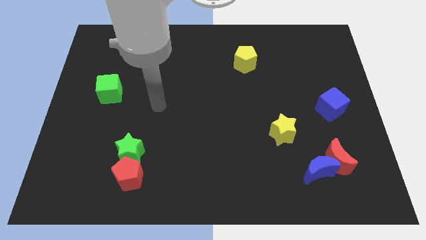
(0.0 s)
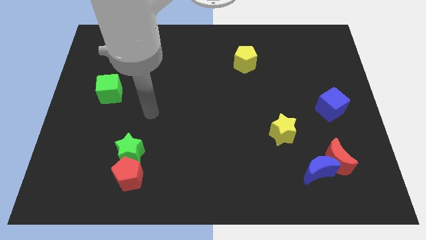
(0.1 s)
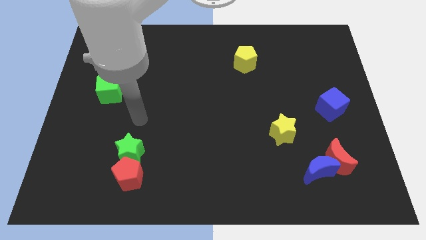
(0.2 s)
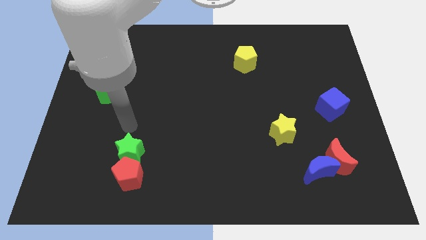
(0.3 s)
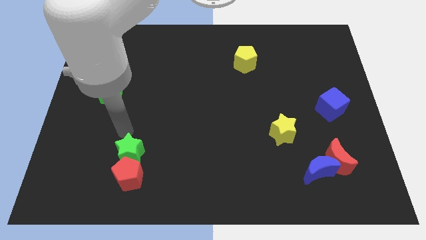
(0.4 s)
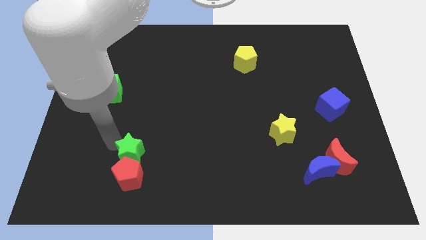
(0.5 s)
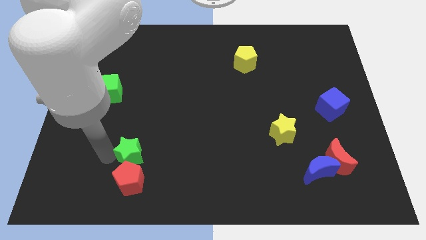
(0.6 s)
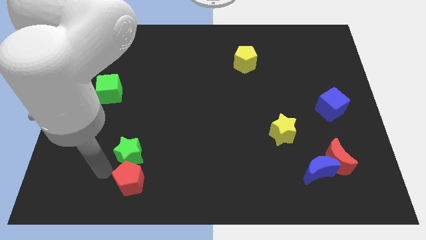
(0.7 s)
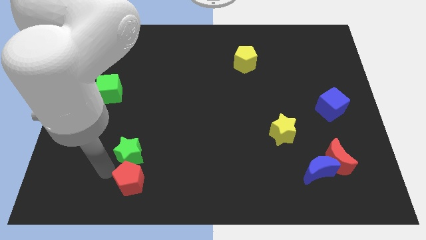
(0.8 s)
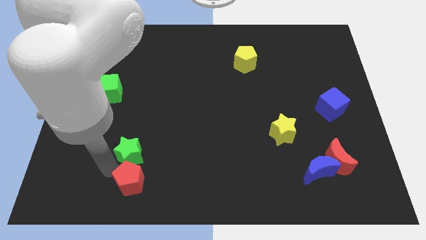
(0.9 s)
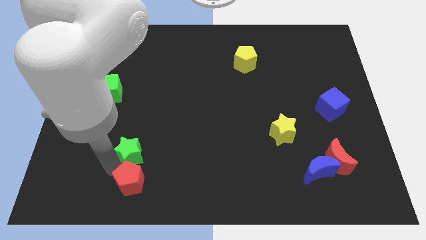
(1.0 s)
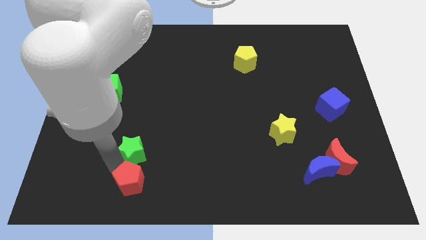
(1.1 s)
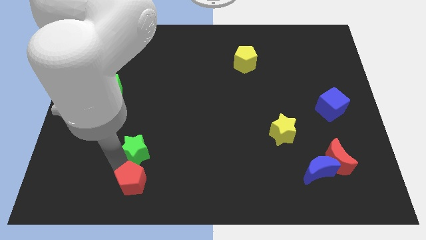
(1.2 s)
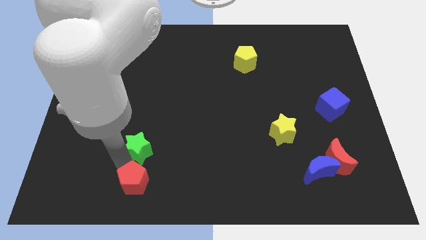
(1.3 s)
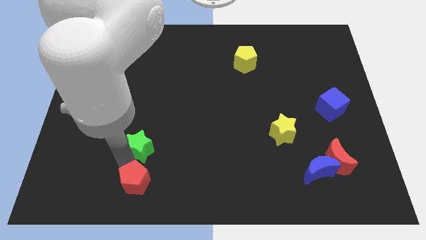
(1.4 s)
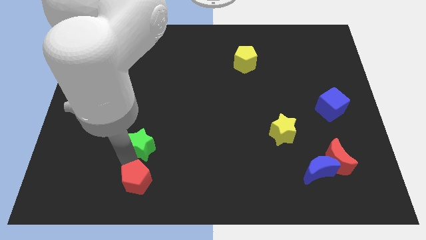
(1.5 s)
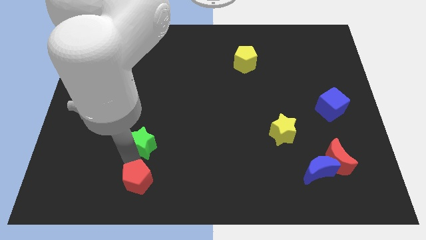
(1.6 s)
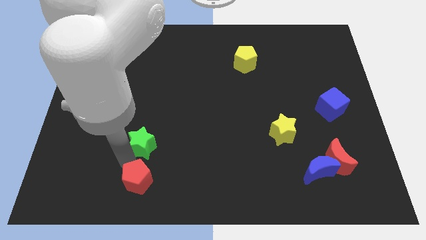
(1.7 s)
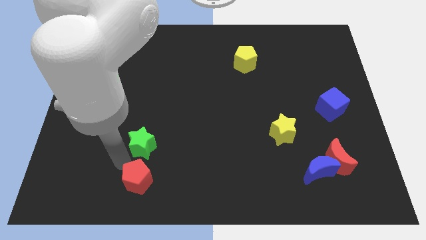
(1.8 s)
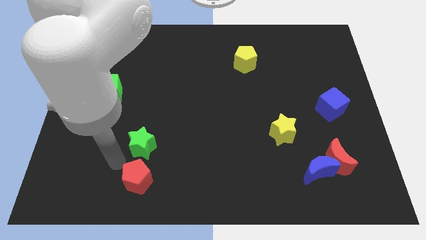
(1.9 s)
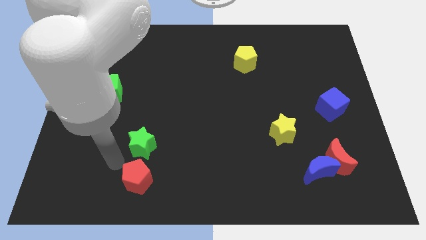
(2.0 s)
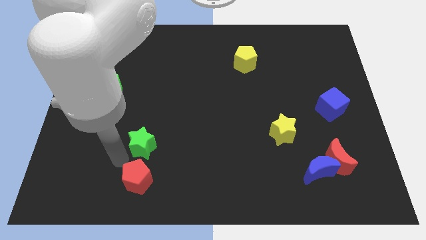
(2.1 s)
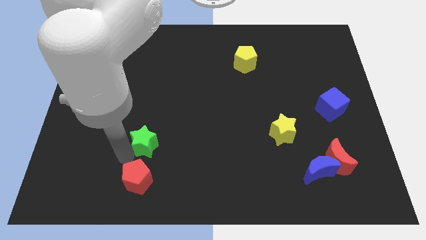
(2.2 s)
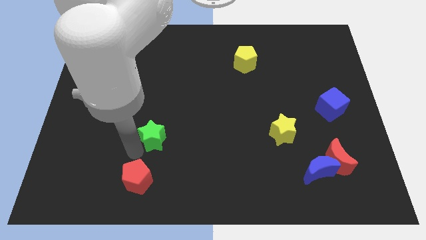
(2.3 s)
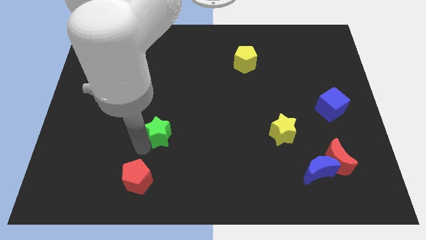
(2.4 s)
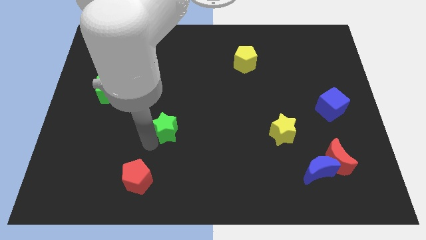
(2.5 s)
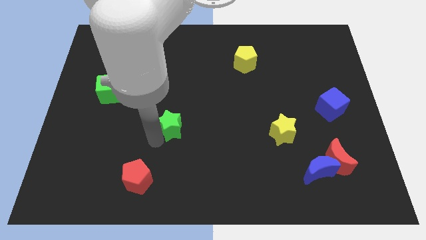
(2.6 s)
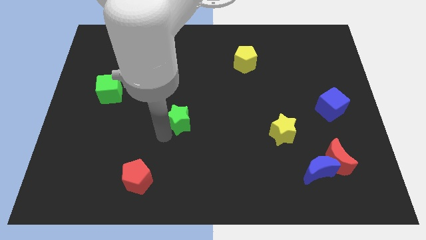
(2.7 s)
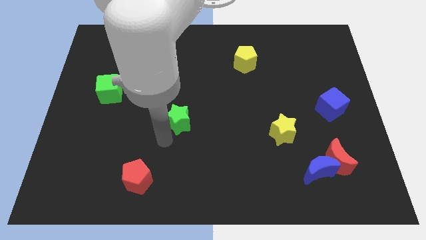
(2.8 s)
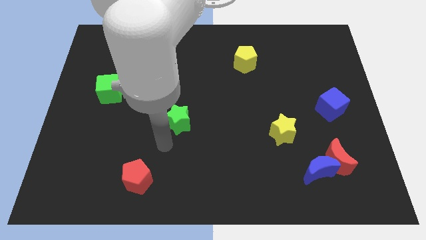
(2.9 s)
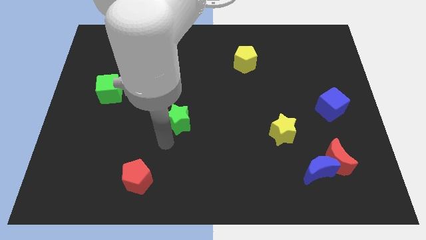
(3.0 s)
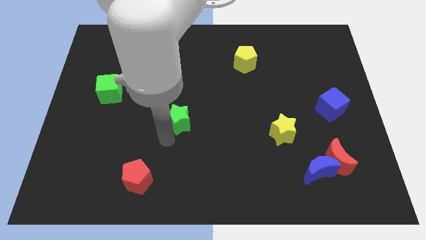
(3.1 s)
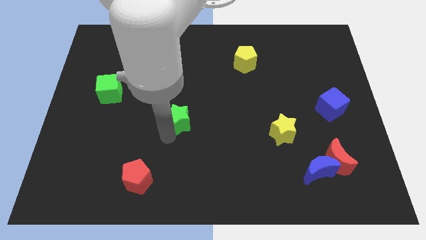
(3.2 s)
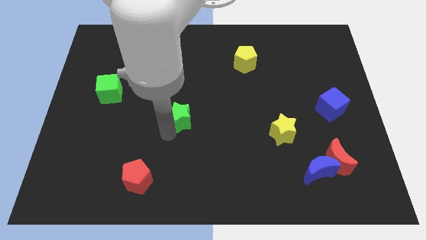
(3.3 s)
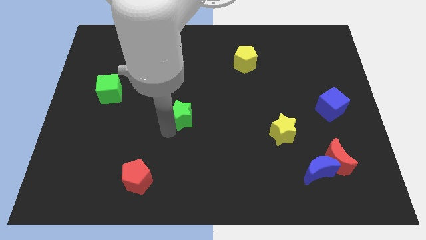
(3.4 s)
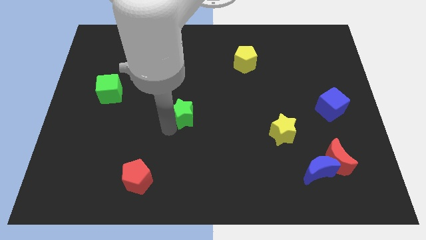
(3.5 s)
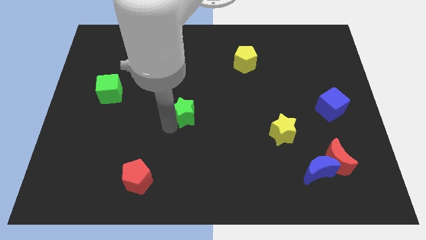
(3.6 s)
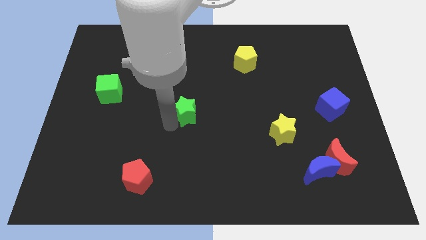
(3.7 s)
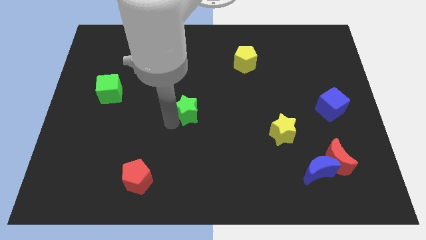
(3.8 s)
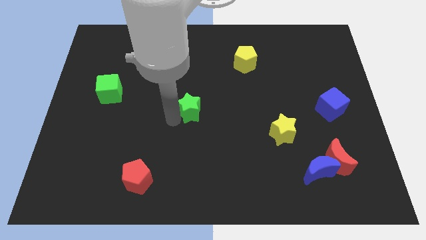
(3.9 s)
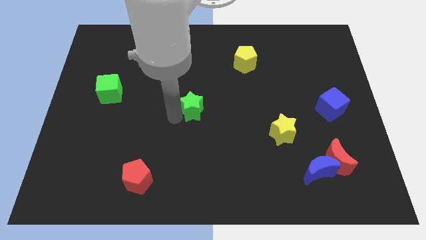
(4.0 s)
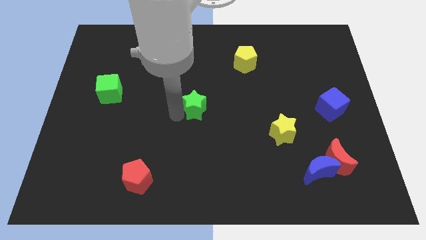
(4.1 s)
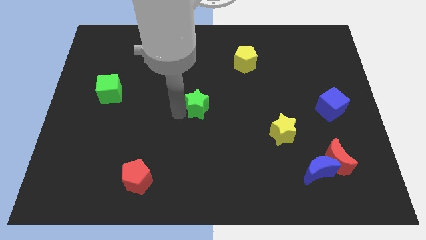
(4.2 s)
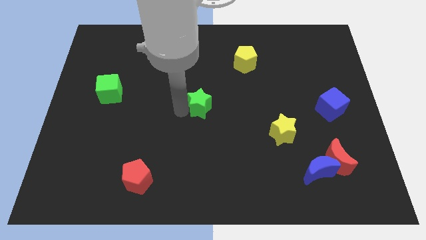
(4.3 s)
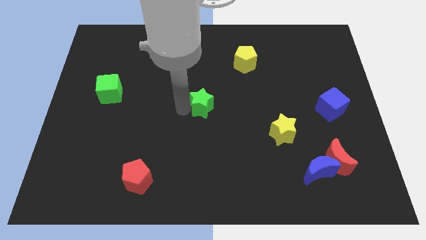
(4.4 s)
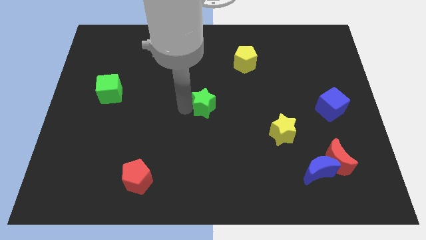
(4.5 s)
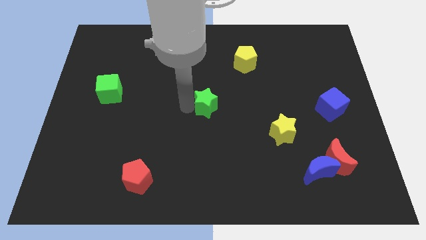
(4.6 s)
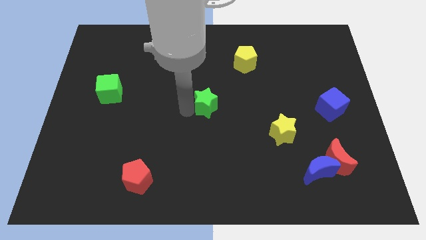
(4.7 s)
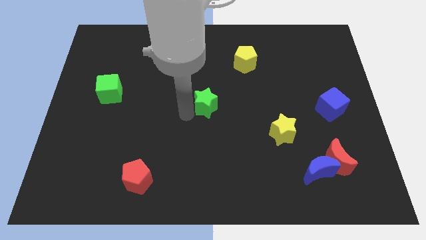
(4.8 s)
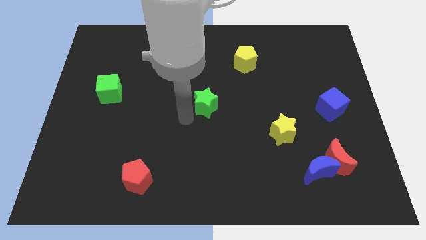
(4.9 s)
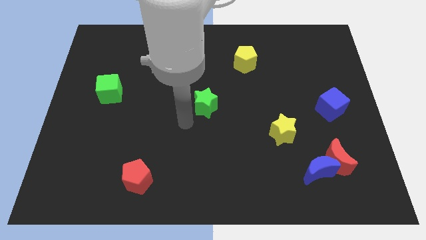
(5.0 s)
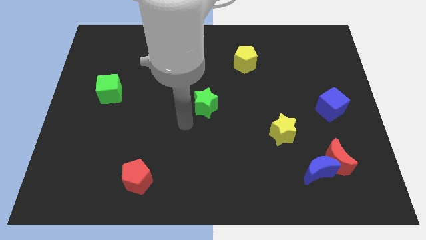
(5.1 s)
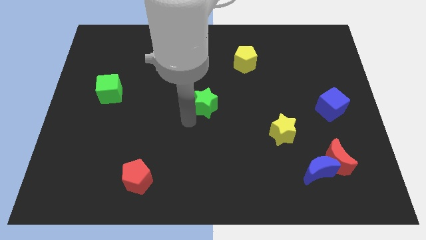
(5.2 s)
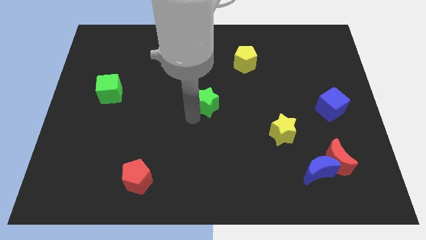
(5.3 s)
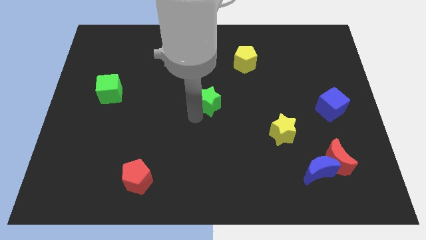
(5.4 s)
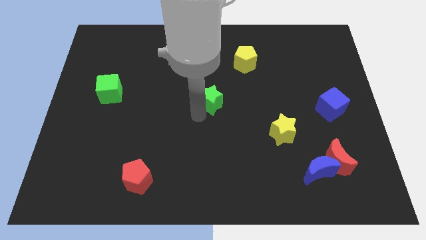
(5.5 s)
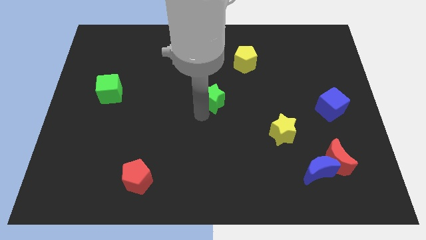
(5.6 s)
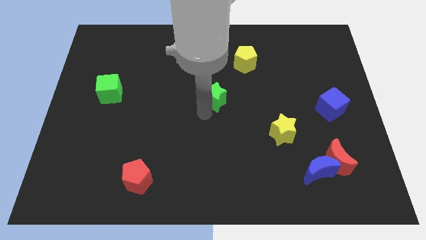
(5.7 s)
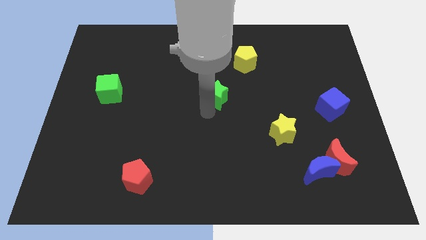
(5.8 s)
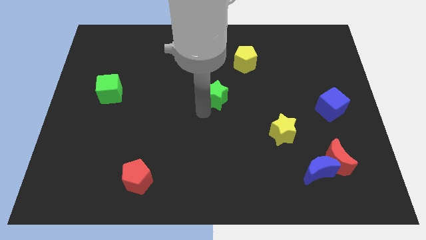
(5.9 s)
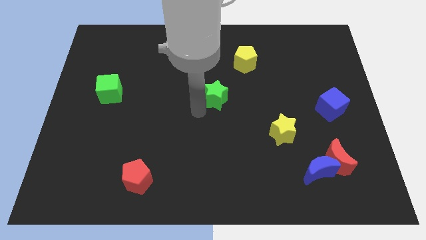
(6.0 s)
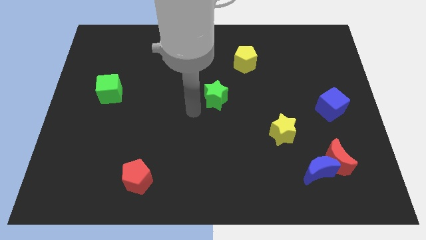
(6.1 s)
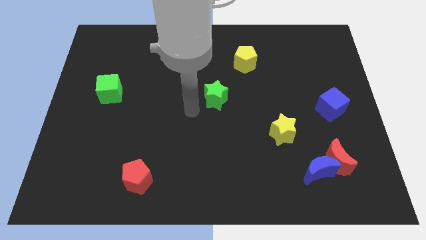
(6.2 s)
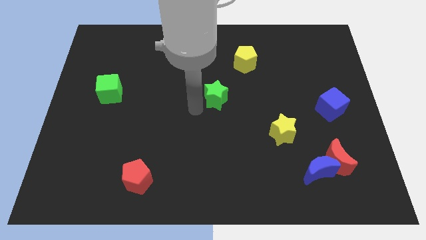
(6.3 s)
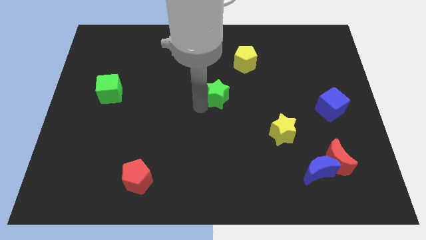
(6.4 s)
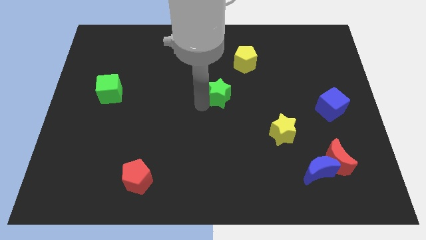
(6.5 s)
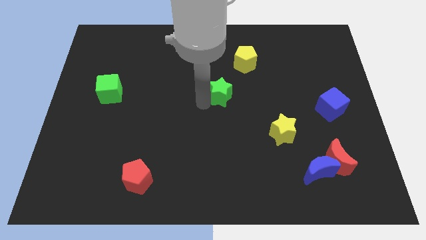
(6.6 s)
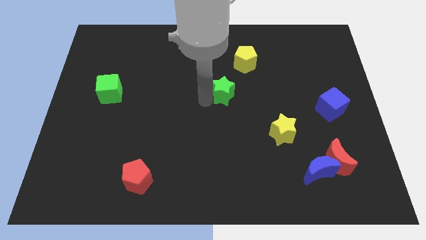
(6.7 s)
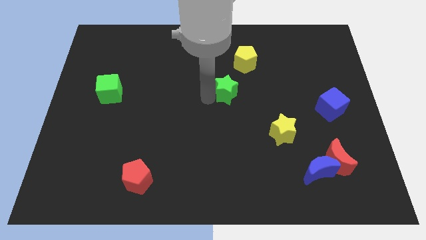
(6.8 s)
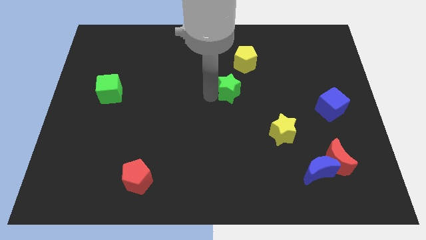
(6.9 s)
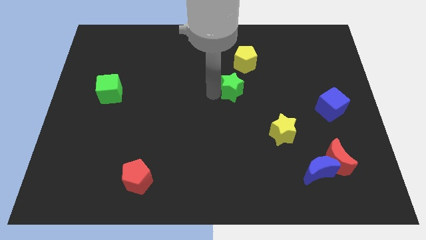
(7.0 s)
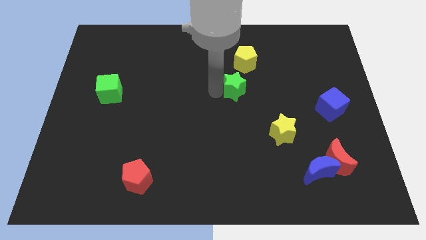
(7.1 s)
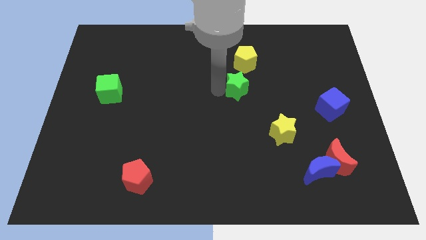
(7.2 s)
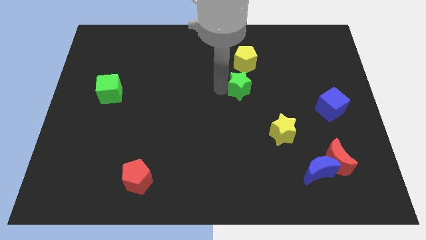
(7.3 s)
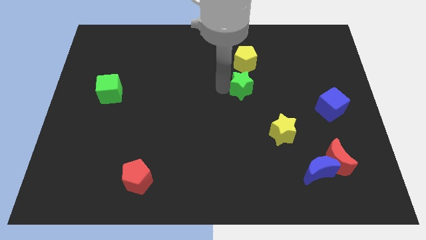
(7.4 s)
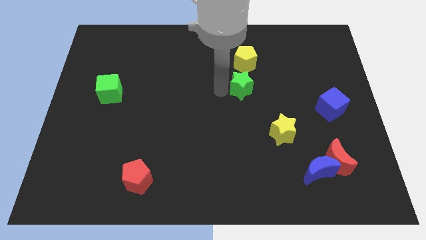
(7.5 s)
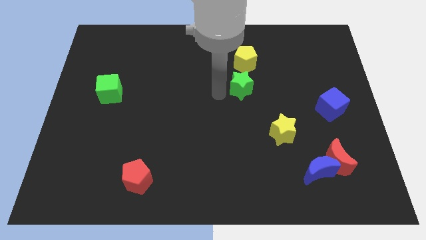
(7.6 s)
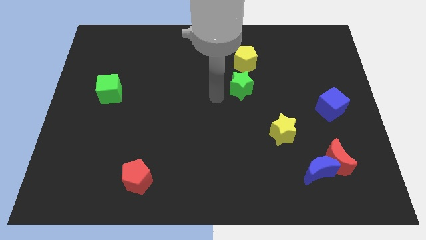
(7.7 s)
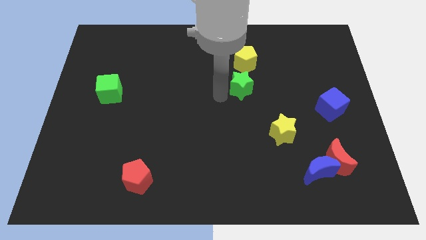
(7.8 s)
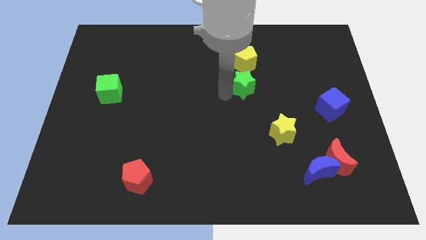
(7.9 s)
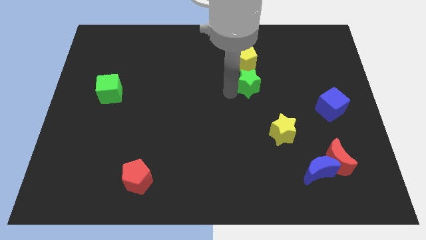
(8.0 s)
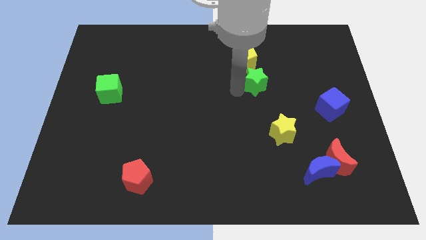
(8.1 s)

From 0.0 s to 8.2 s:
put the green star diagonally down and to the right of the yellow pentagon

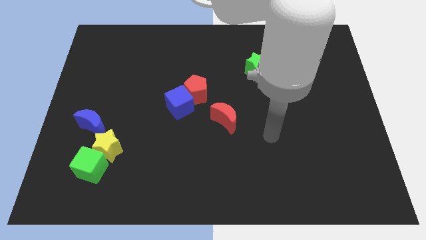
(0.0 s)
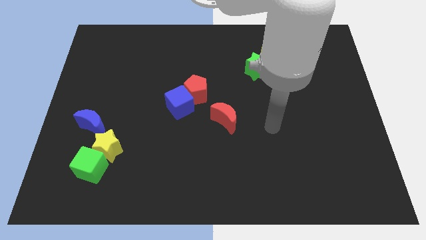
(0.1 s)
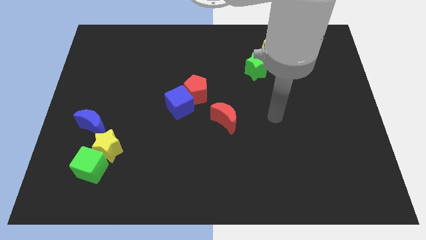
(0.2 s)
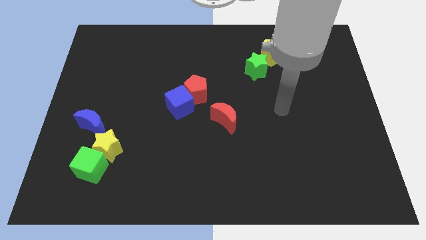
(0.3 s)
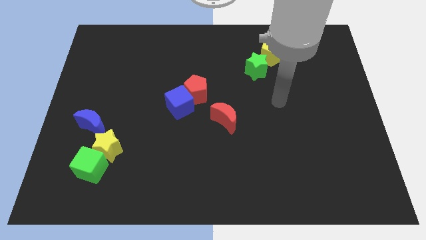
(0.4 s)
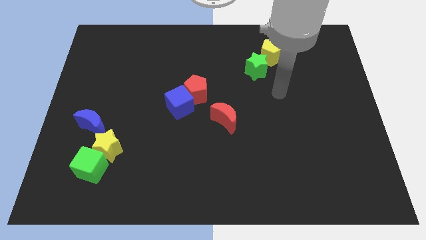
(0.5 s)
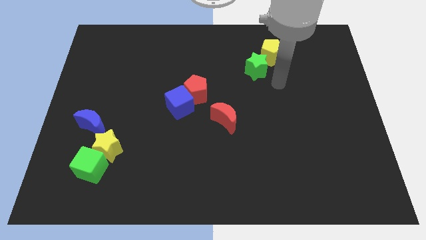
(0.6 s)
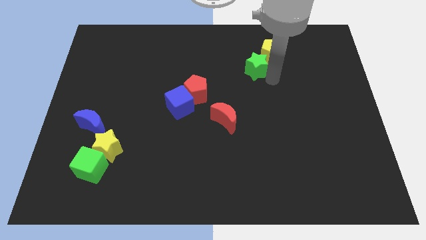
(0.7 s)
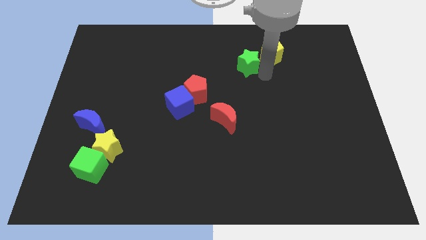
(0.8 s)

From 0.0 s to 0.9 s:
slide the green star just left of the yellow pentagon
